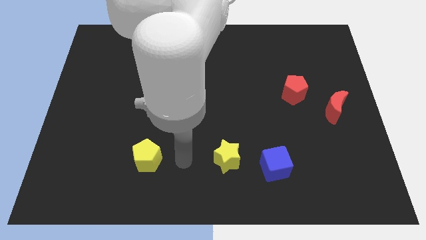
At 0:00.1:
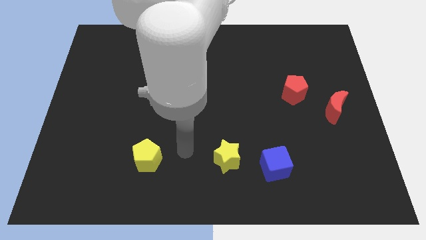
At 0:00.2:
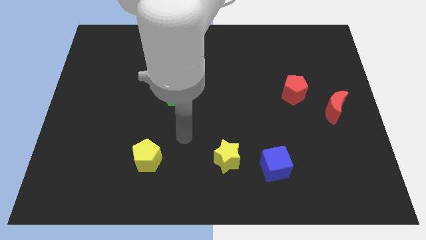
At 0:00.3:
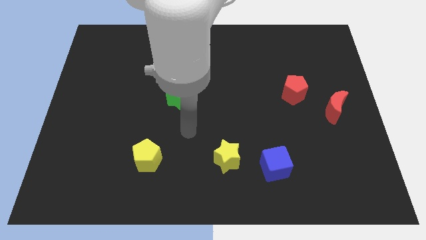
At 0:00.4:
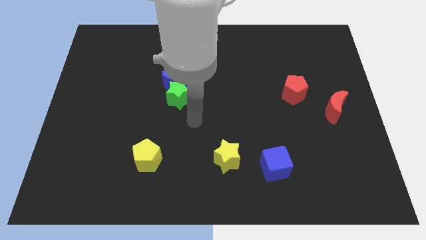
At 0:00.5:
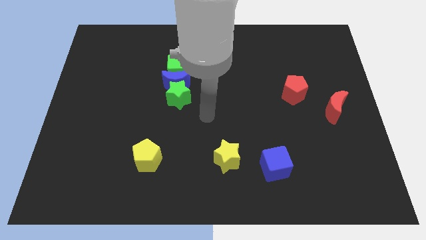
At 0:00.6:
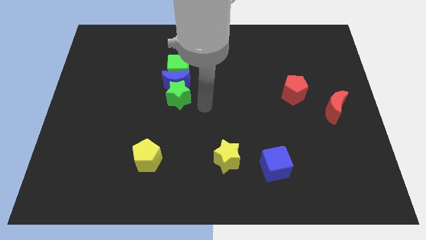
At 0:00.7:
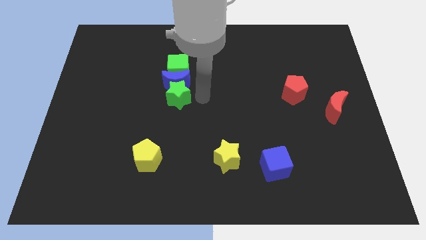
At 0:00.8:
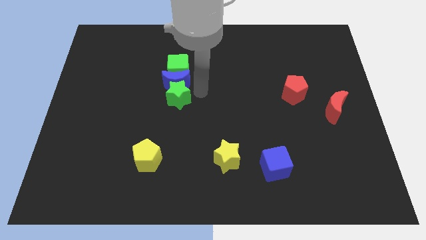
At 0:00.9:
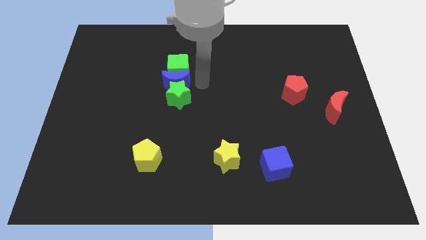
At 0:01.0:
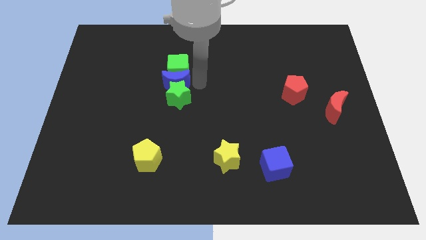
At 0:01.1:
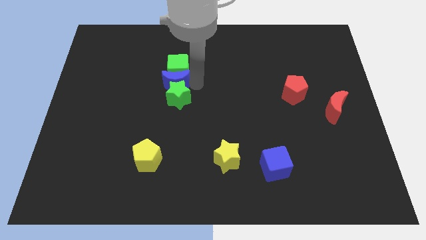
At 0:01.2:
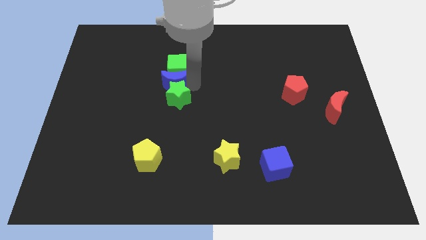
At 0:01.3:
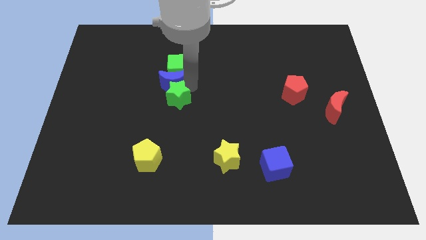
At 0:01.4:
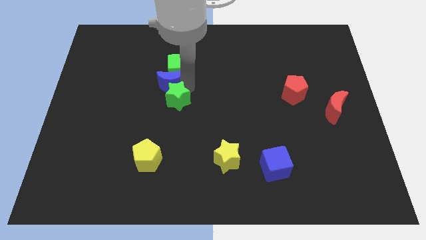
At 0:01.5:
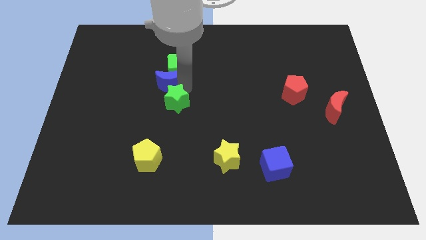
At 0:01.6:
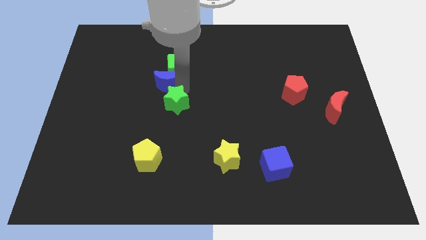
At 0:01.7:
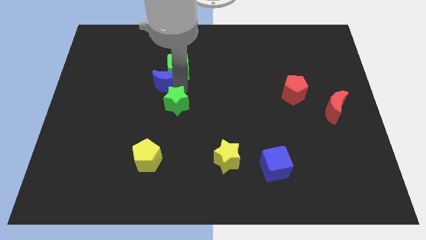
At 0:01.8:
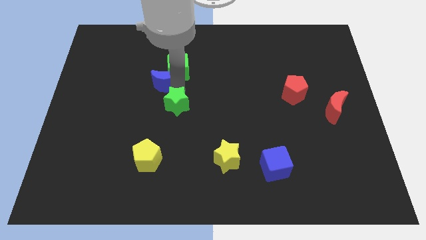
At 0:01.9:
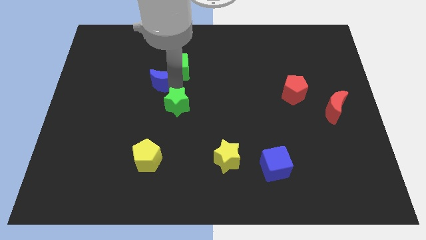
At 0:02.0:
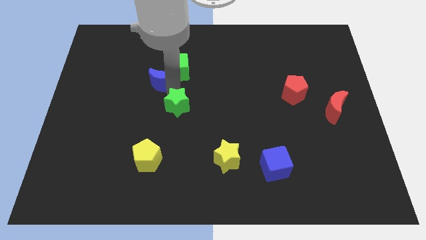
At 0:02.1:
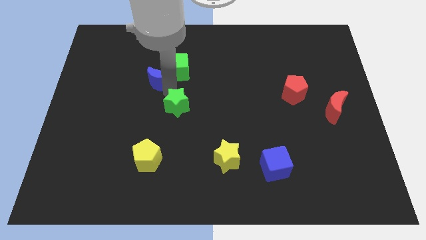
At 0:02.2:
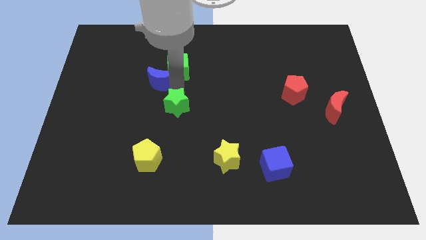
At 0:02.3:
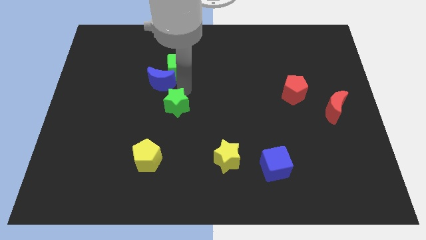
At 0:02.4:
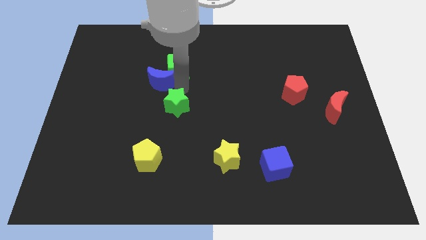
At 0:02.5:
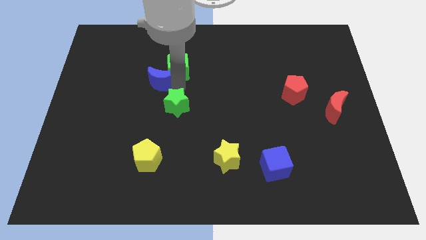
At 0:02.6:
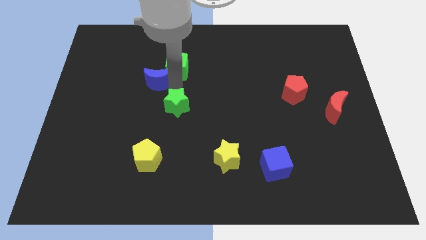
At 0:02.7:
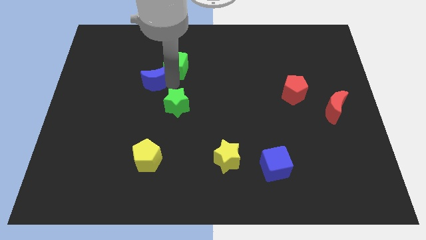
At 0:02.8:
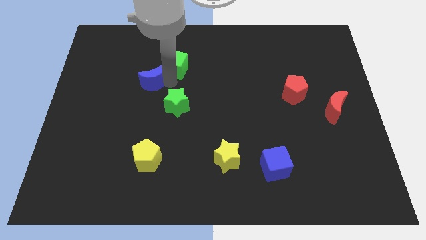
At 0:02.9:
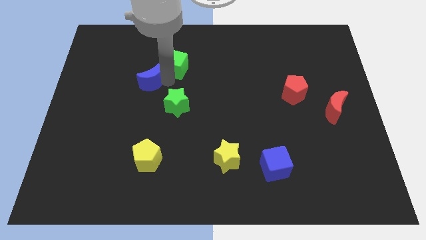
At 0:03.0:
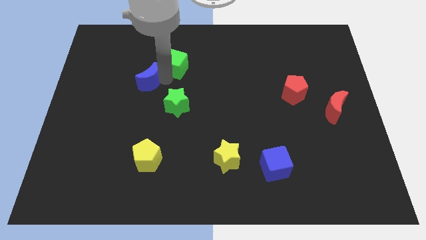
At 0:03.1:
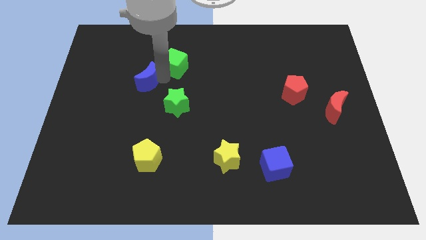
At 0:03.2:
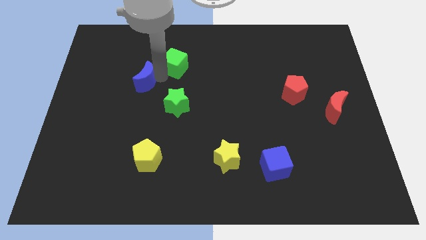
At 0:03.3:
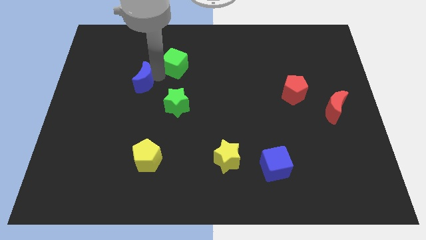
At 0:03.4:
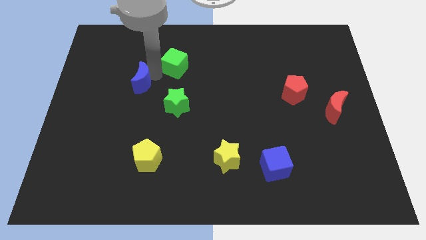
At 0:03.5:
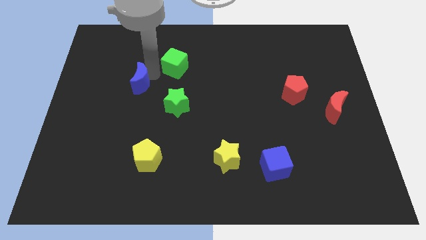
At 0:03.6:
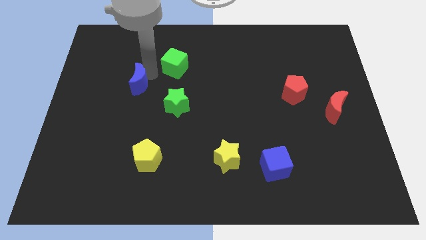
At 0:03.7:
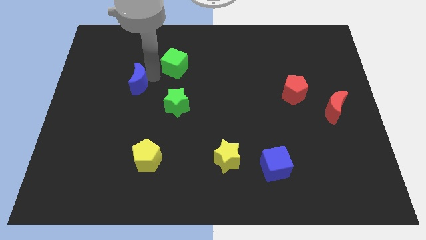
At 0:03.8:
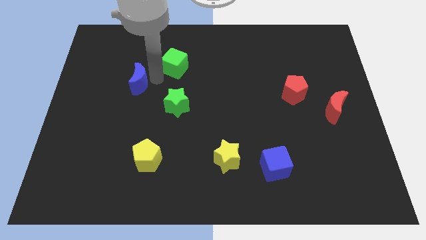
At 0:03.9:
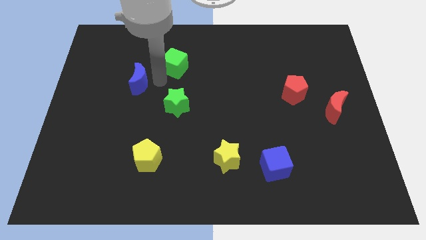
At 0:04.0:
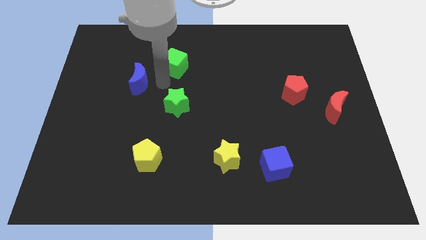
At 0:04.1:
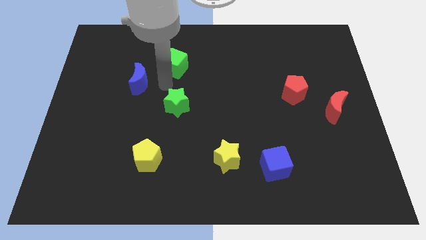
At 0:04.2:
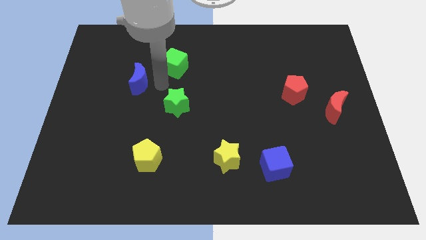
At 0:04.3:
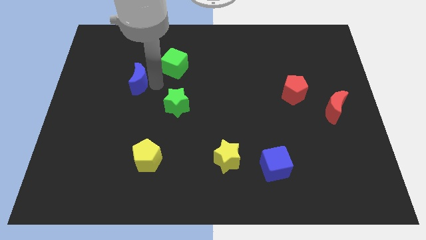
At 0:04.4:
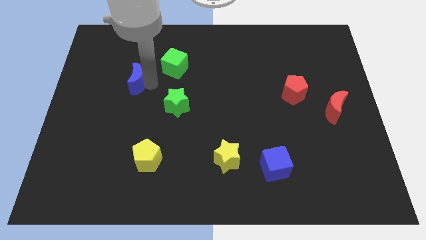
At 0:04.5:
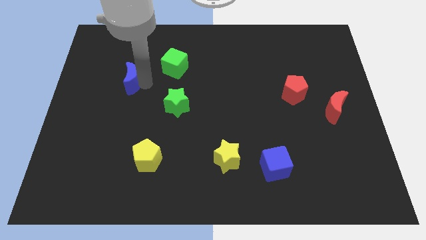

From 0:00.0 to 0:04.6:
move the blue moon away from the green cube and green star

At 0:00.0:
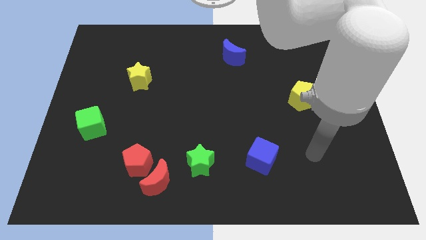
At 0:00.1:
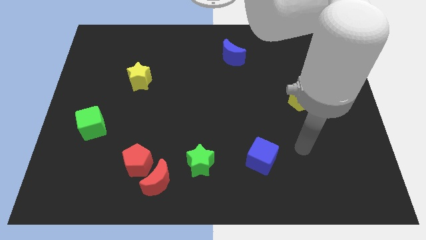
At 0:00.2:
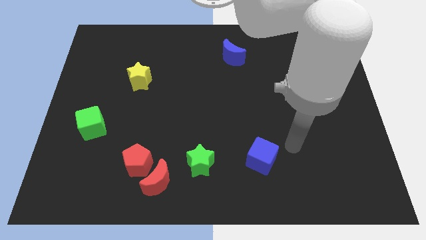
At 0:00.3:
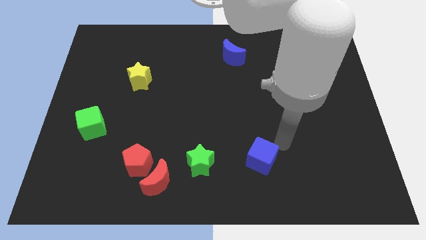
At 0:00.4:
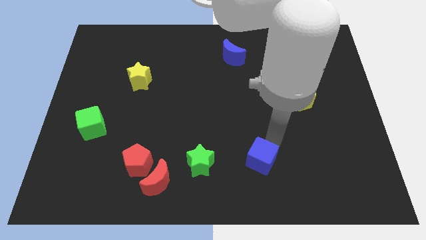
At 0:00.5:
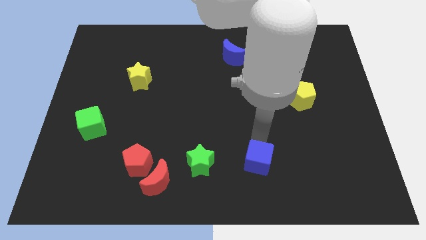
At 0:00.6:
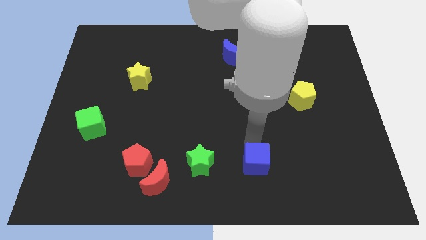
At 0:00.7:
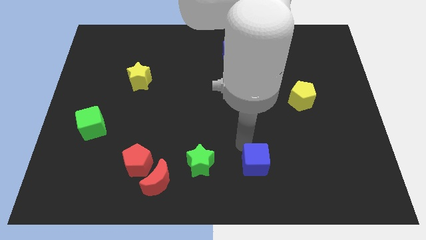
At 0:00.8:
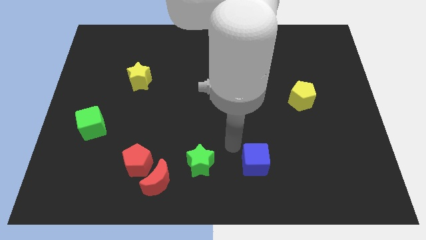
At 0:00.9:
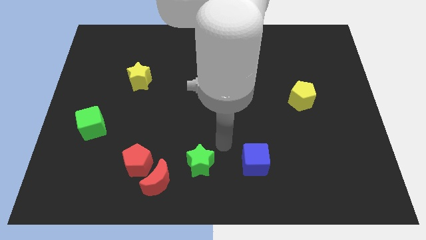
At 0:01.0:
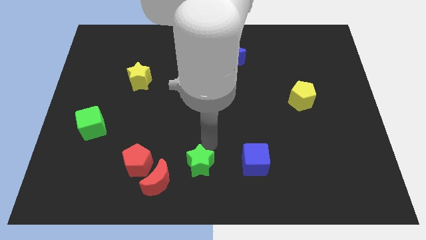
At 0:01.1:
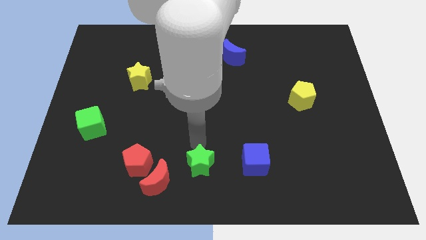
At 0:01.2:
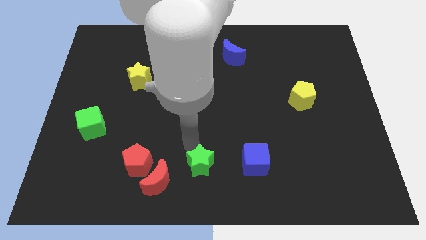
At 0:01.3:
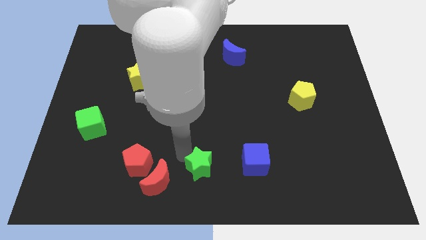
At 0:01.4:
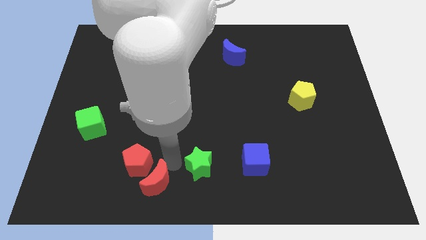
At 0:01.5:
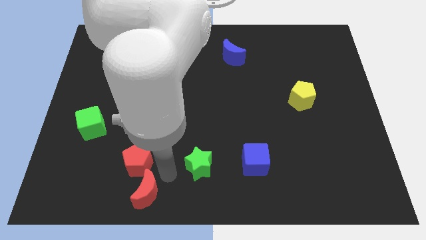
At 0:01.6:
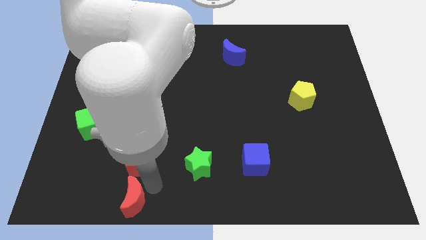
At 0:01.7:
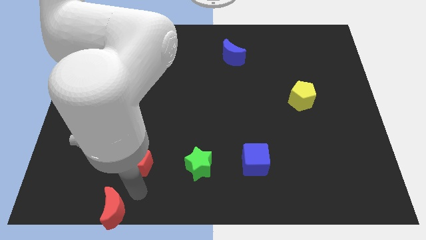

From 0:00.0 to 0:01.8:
pull the red pentagon apart from the red moon

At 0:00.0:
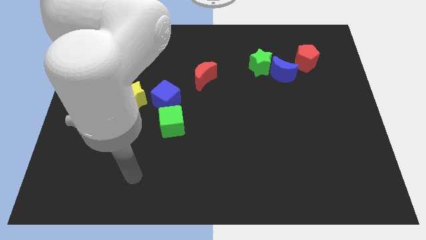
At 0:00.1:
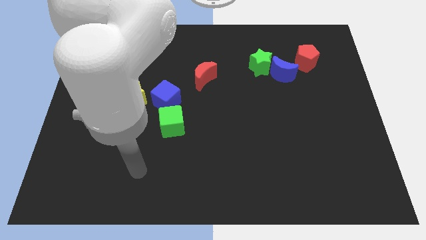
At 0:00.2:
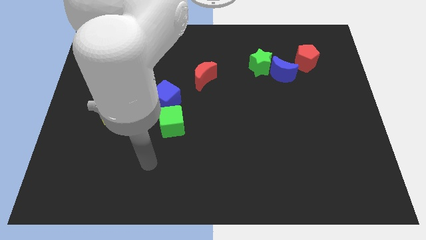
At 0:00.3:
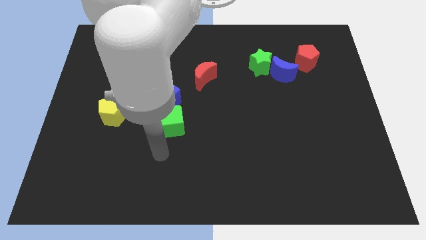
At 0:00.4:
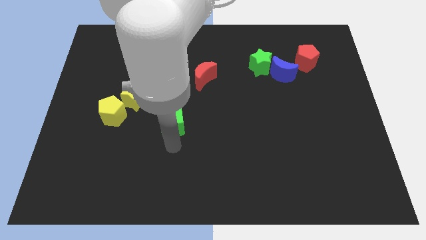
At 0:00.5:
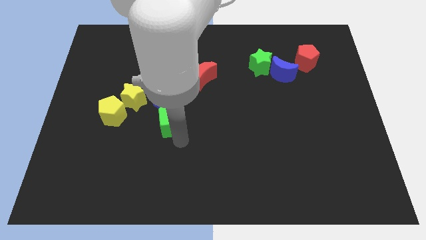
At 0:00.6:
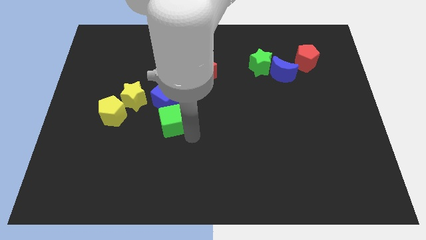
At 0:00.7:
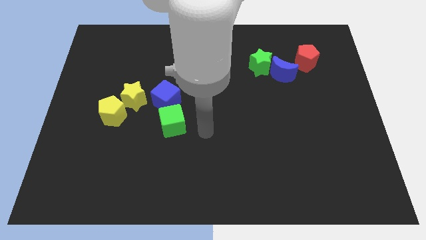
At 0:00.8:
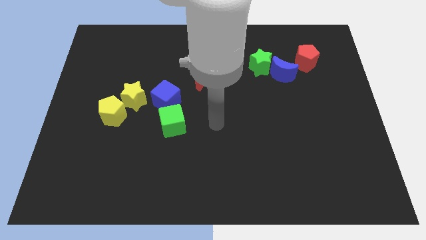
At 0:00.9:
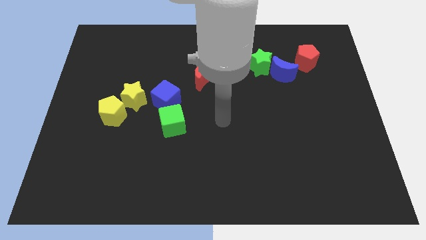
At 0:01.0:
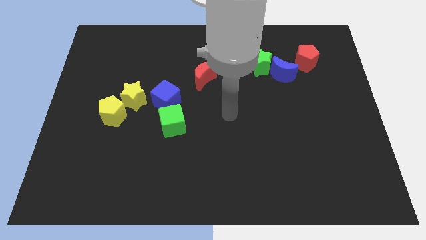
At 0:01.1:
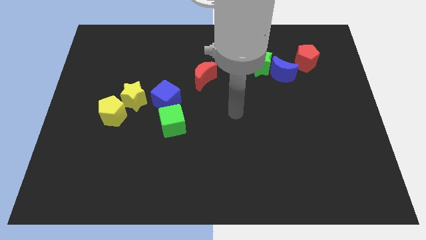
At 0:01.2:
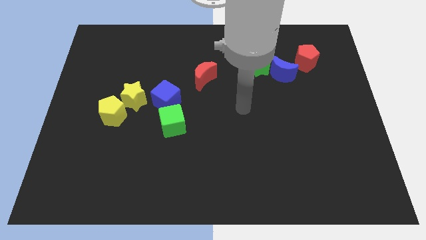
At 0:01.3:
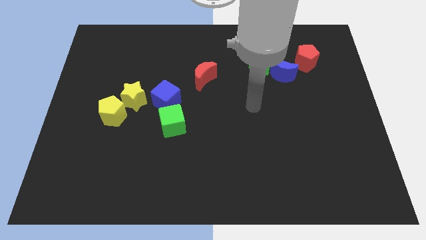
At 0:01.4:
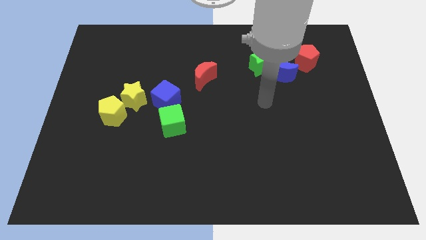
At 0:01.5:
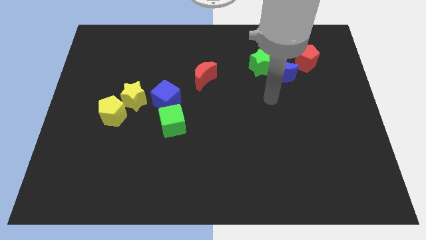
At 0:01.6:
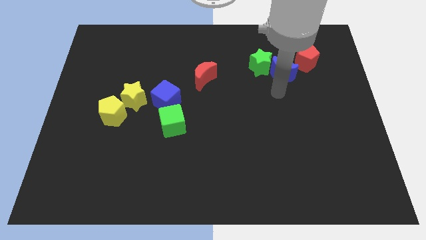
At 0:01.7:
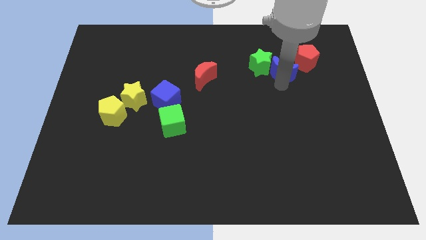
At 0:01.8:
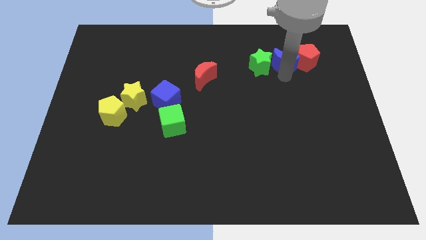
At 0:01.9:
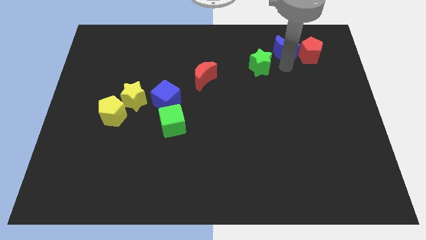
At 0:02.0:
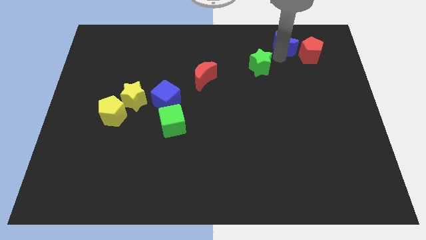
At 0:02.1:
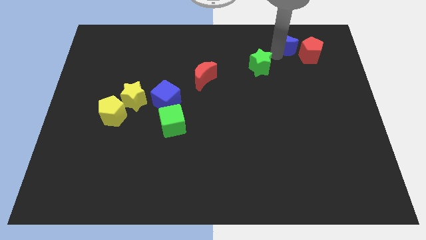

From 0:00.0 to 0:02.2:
pull the green star apart from the blue moon

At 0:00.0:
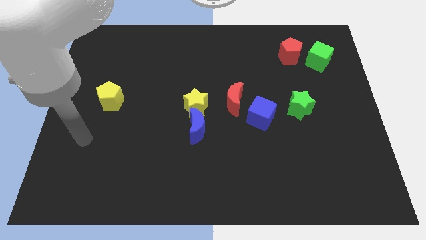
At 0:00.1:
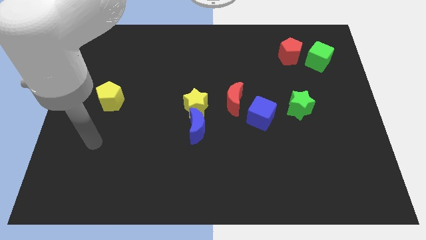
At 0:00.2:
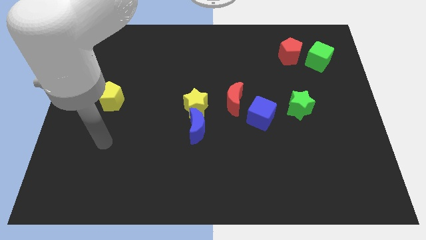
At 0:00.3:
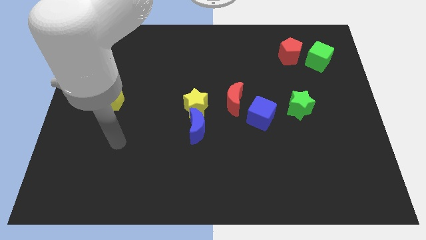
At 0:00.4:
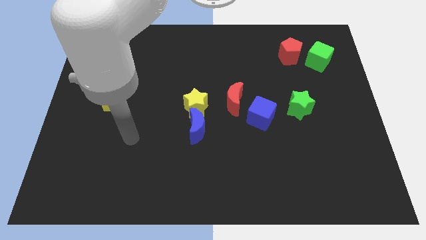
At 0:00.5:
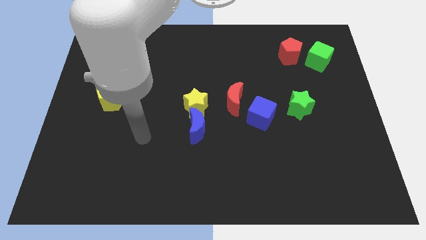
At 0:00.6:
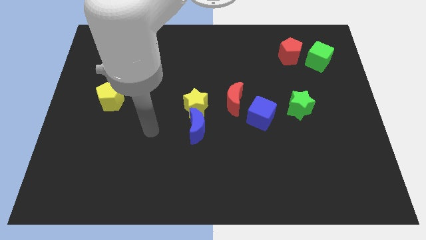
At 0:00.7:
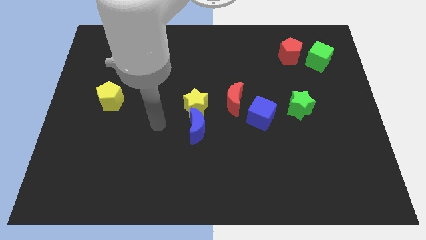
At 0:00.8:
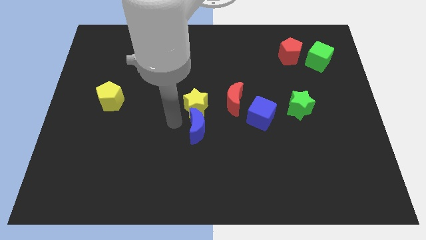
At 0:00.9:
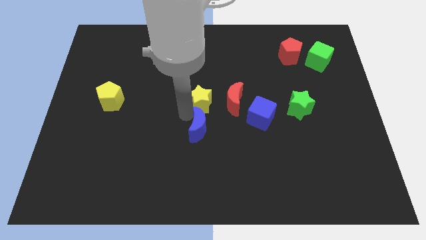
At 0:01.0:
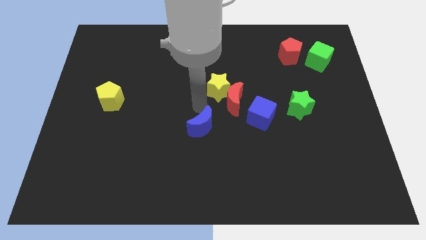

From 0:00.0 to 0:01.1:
move the blue moon away from the yellow star
